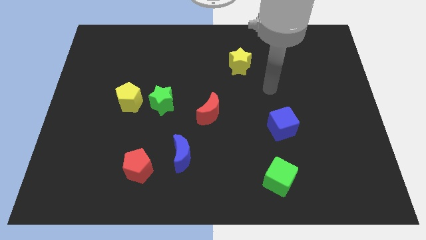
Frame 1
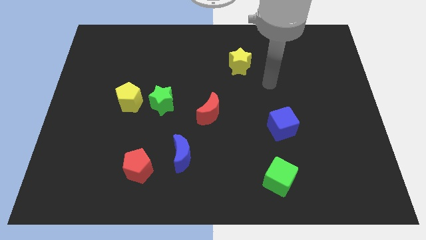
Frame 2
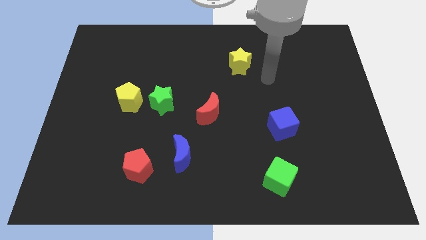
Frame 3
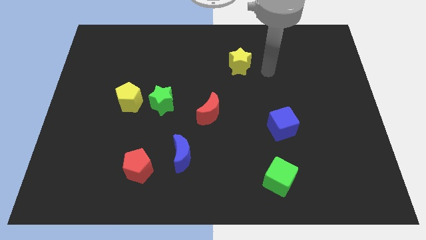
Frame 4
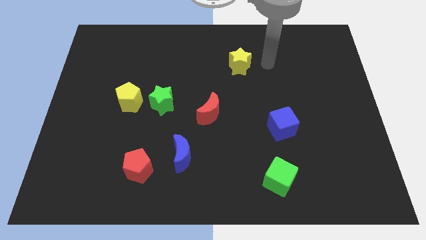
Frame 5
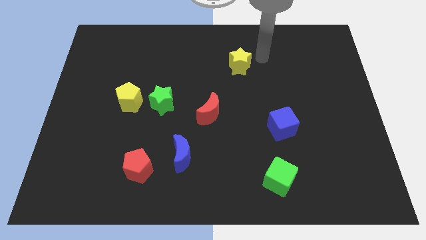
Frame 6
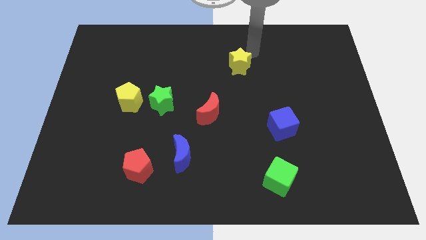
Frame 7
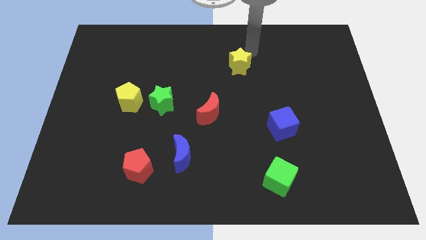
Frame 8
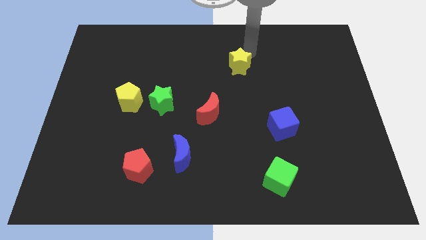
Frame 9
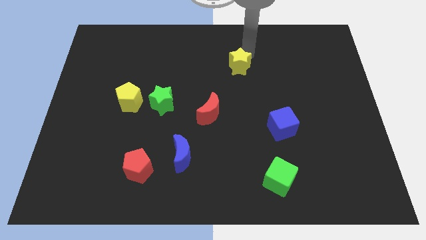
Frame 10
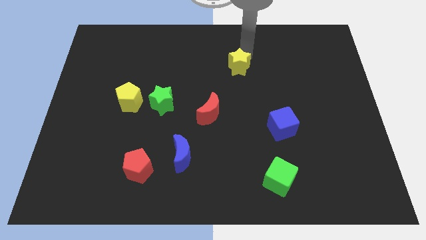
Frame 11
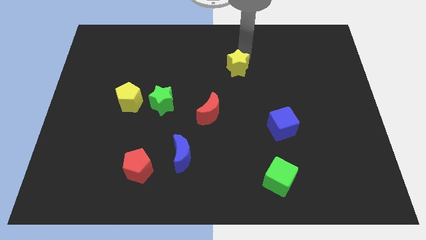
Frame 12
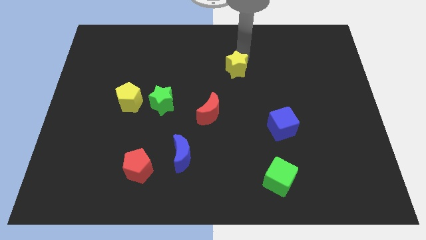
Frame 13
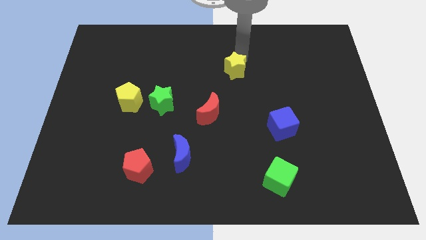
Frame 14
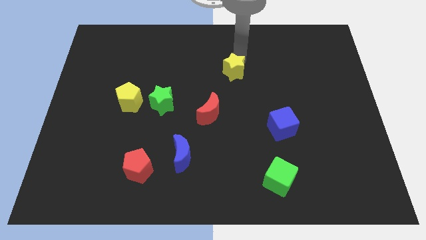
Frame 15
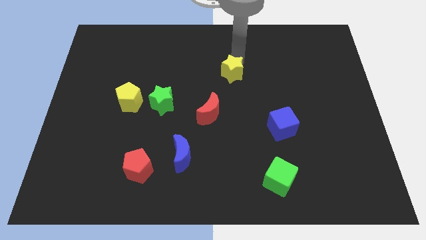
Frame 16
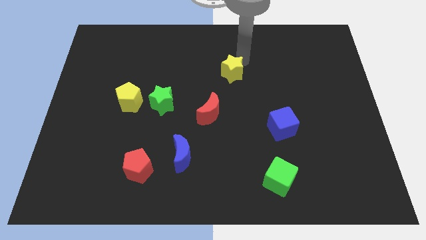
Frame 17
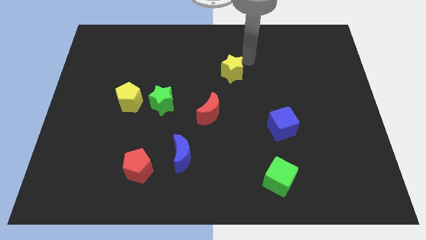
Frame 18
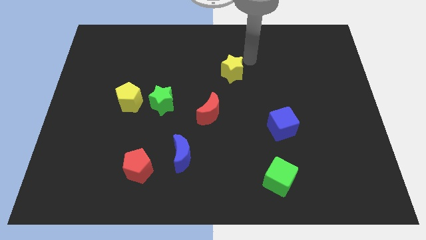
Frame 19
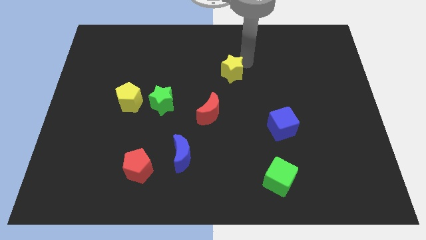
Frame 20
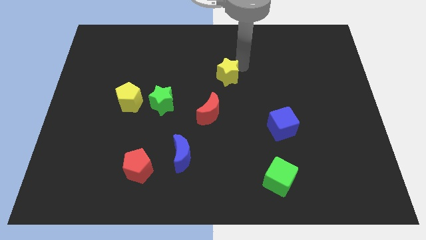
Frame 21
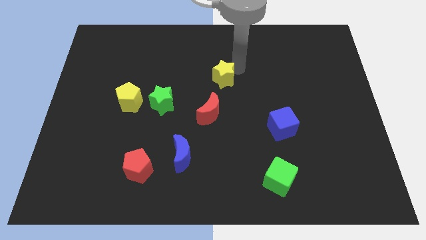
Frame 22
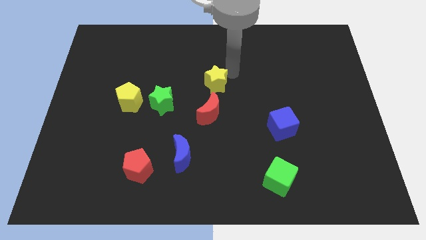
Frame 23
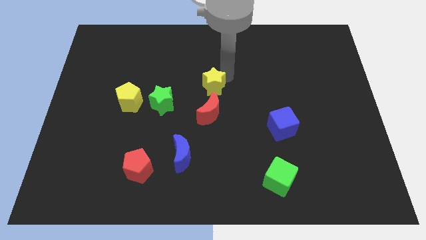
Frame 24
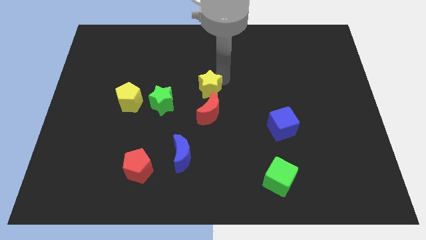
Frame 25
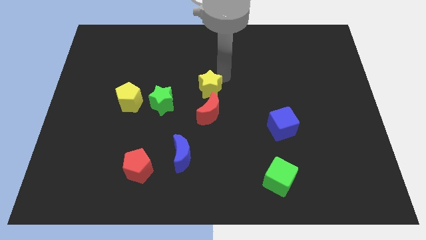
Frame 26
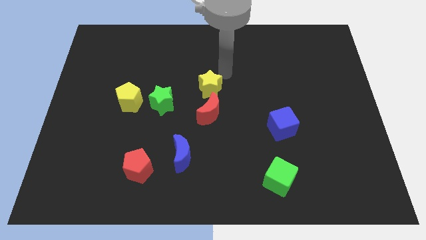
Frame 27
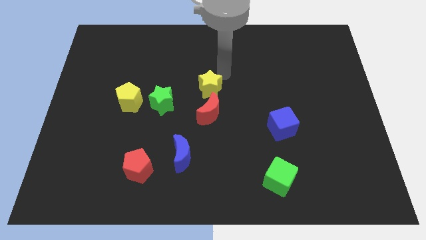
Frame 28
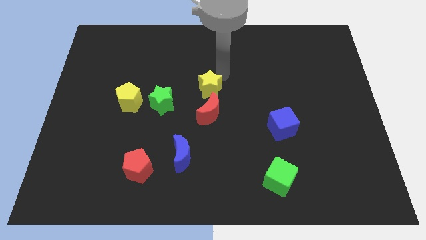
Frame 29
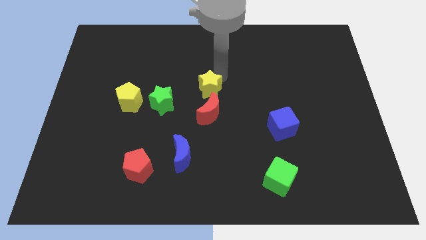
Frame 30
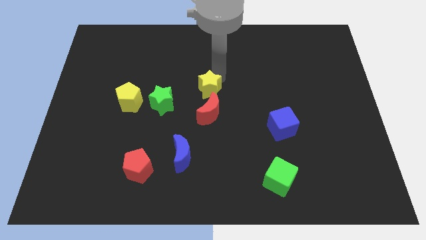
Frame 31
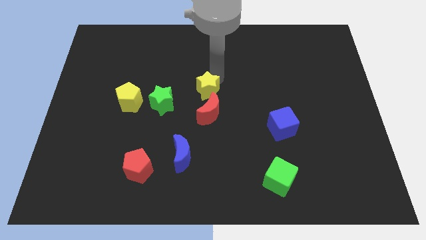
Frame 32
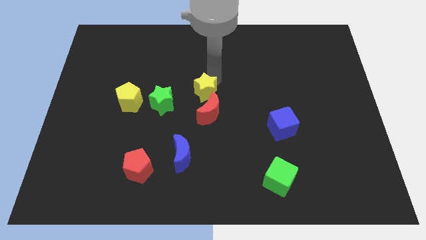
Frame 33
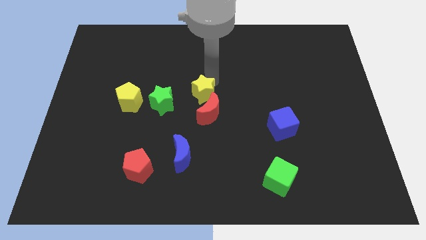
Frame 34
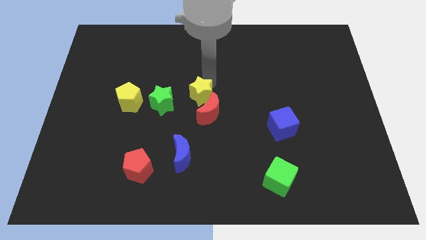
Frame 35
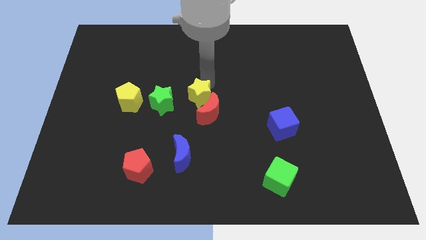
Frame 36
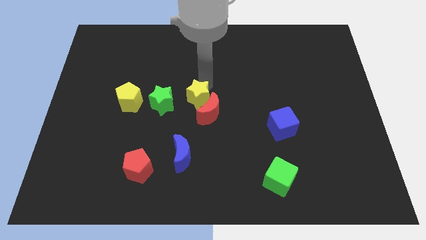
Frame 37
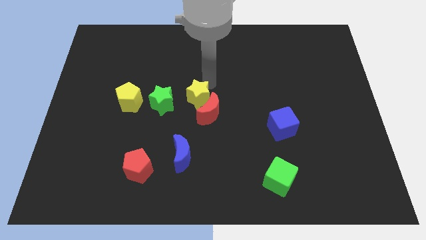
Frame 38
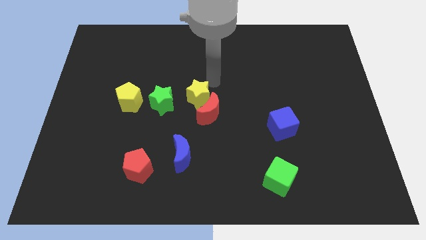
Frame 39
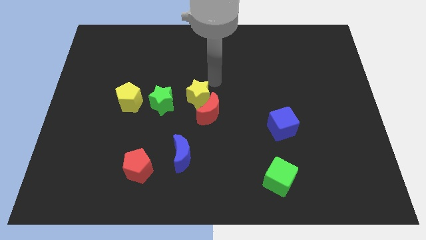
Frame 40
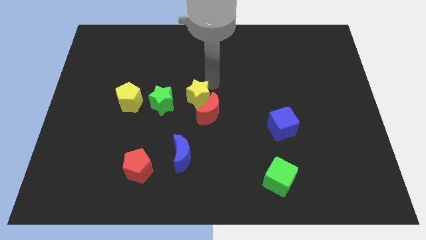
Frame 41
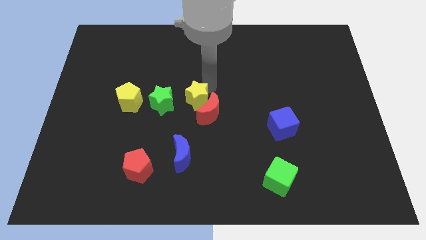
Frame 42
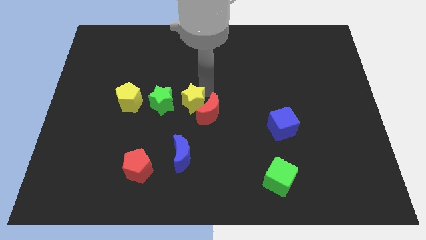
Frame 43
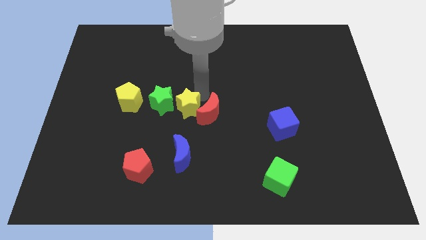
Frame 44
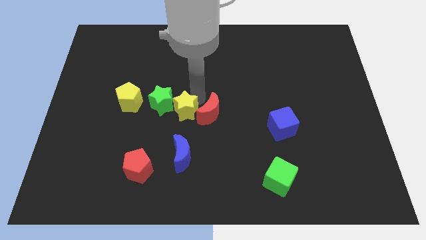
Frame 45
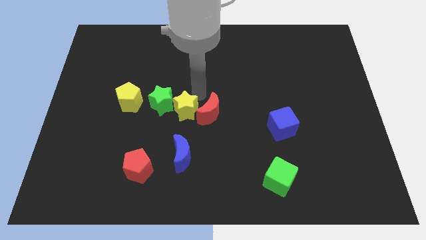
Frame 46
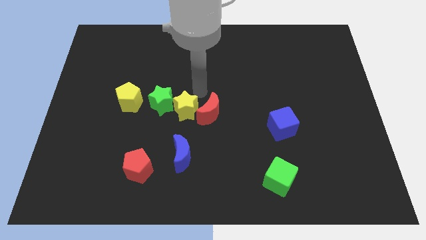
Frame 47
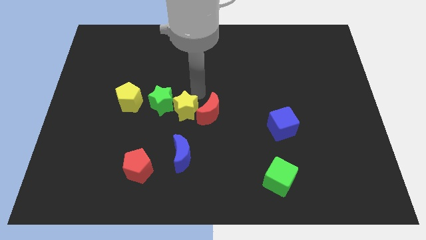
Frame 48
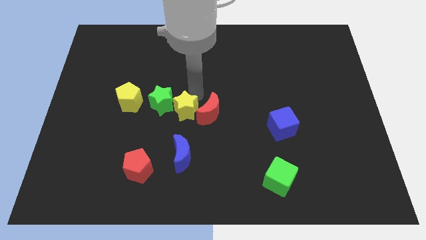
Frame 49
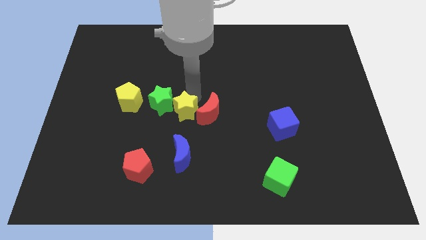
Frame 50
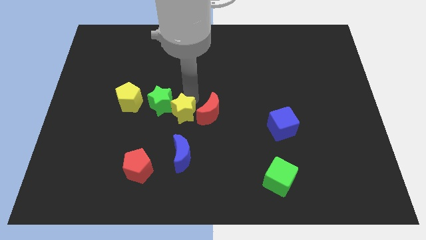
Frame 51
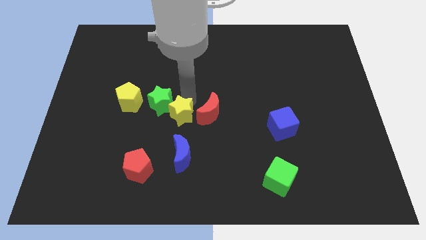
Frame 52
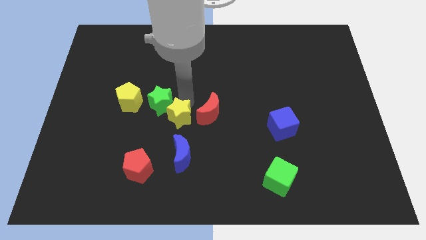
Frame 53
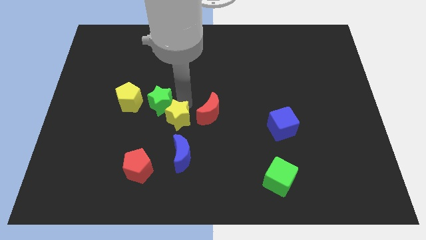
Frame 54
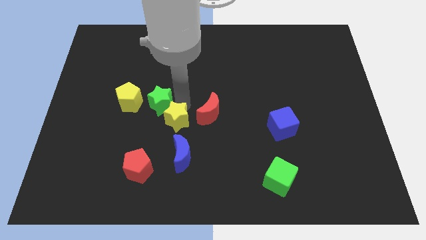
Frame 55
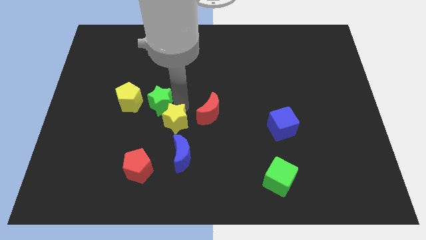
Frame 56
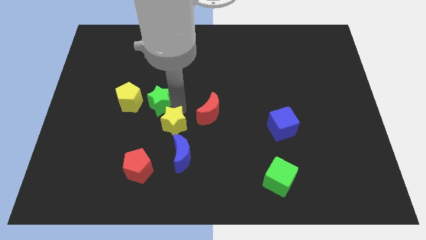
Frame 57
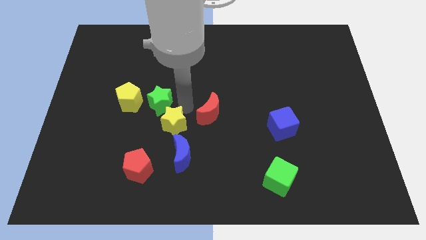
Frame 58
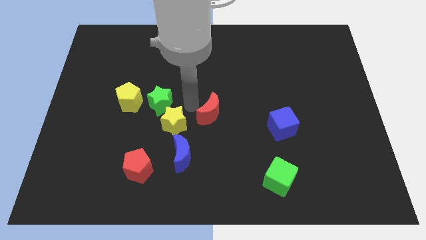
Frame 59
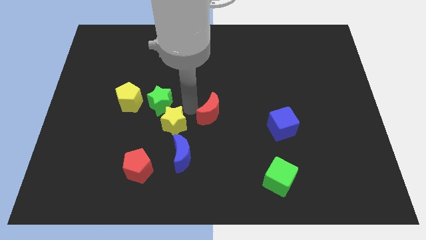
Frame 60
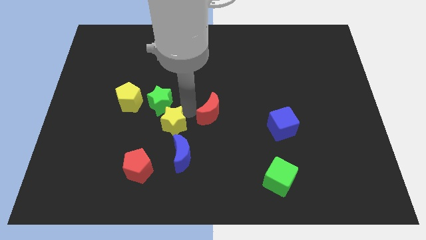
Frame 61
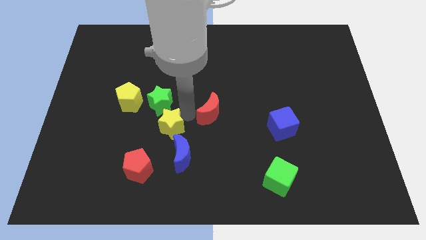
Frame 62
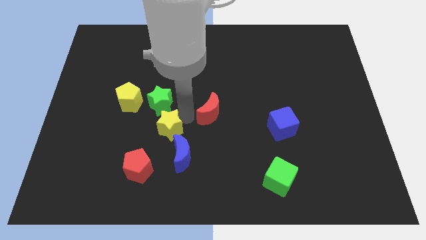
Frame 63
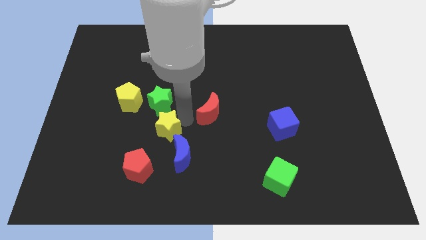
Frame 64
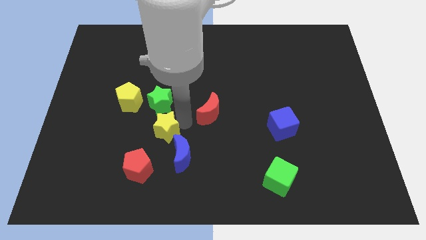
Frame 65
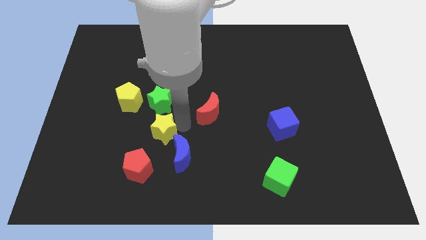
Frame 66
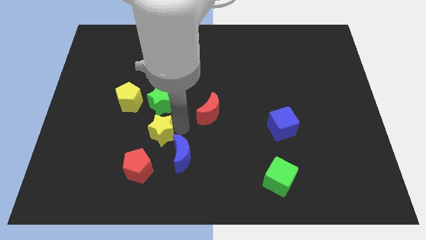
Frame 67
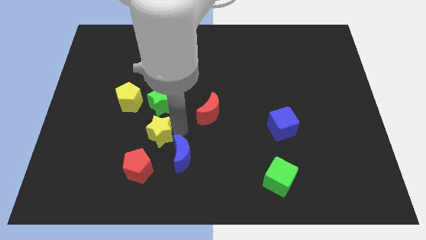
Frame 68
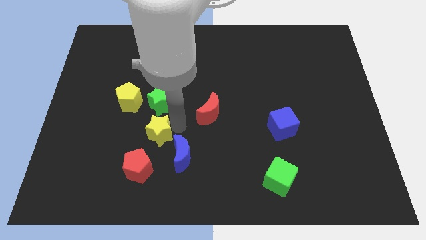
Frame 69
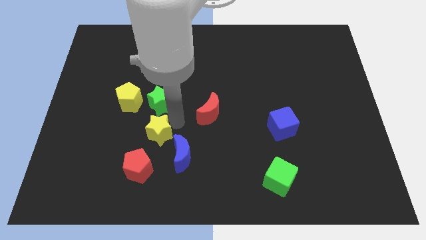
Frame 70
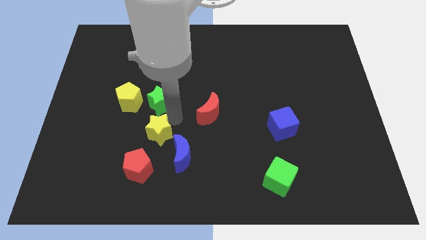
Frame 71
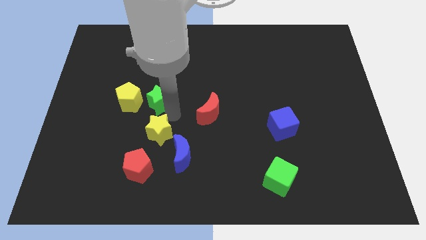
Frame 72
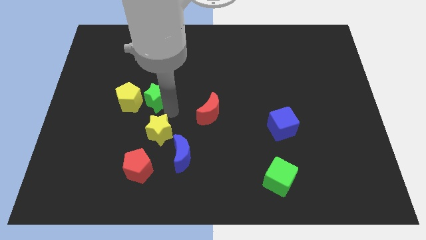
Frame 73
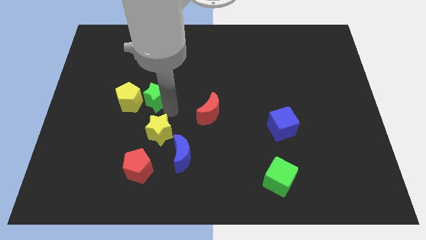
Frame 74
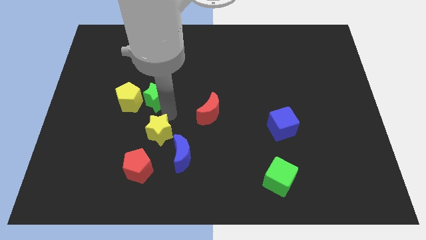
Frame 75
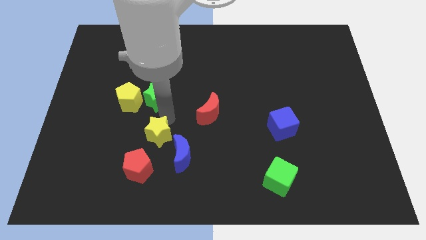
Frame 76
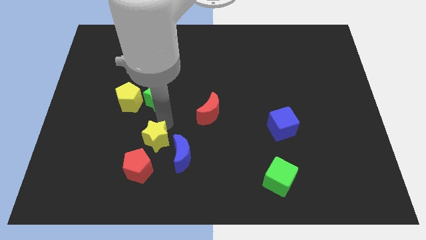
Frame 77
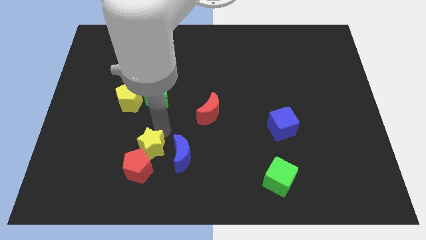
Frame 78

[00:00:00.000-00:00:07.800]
slide the yellow star to the red pentagon

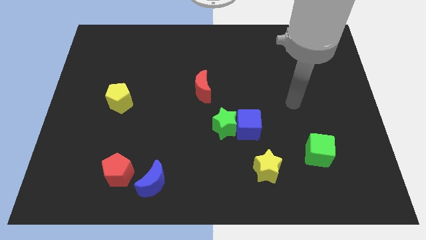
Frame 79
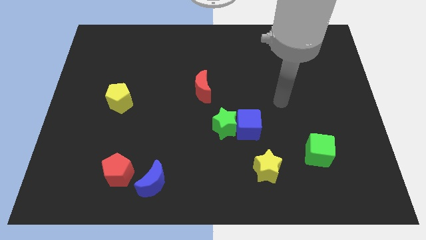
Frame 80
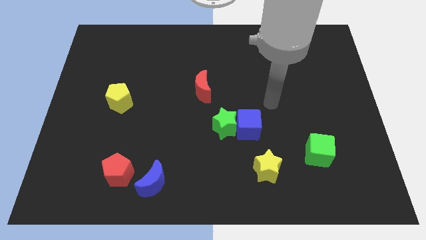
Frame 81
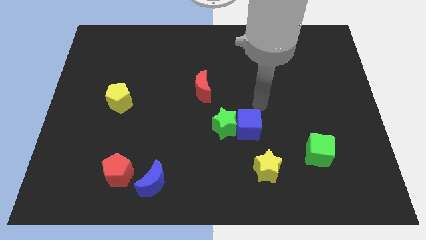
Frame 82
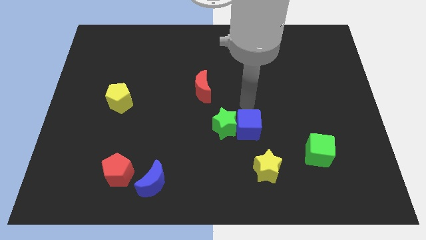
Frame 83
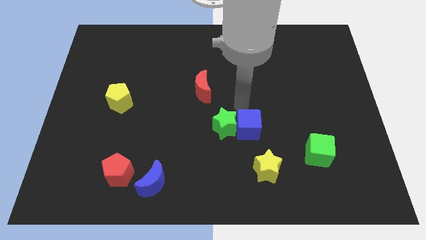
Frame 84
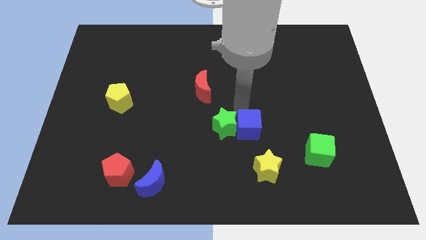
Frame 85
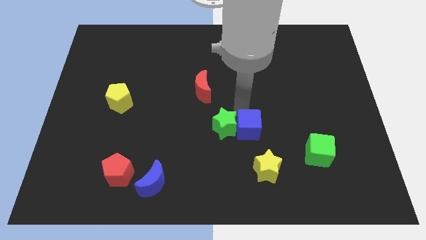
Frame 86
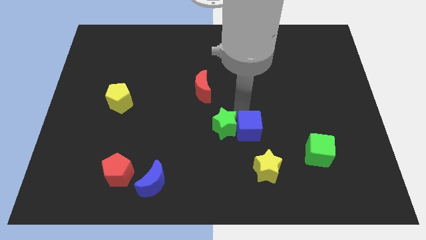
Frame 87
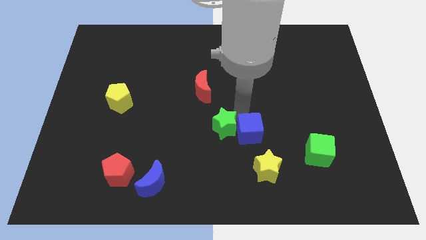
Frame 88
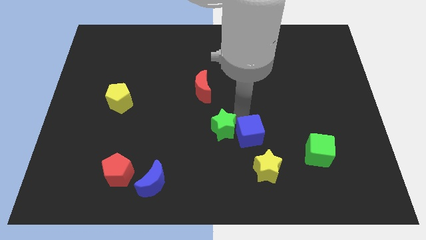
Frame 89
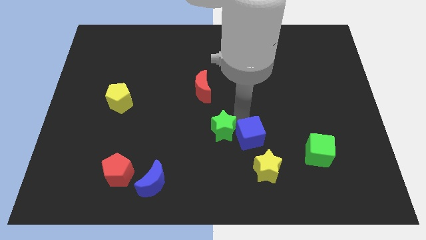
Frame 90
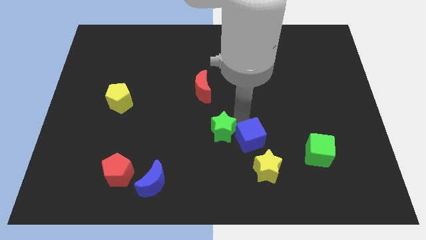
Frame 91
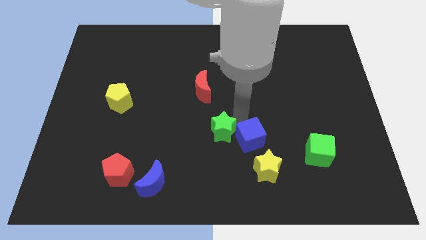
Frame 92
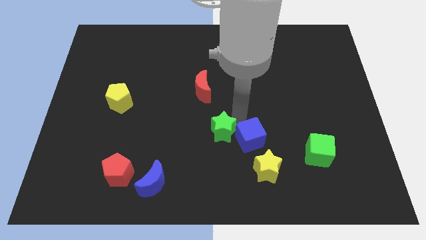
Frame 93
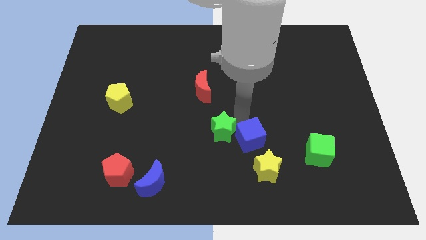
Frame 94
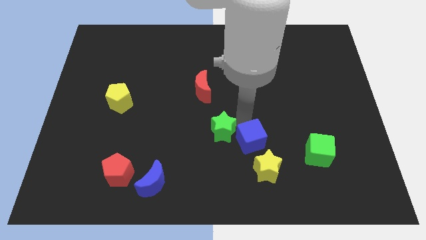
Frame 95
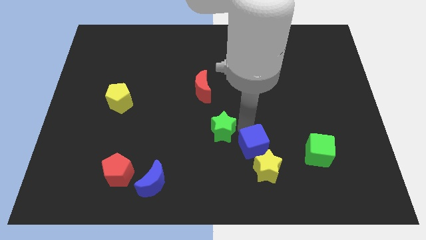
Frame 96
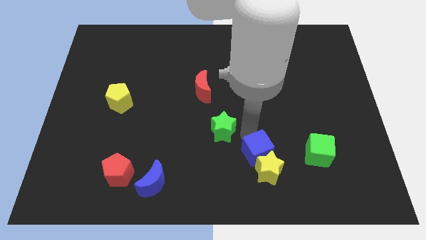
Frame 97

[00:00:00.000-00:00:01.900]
slide the blue cube to the yellow star
